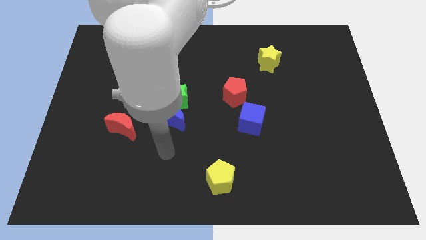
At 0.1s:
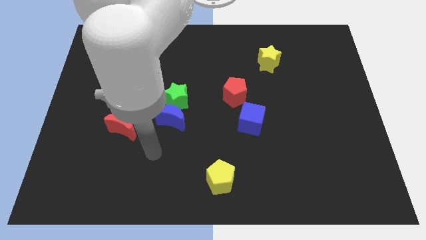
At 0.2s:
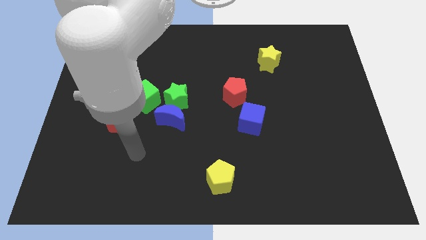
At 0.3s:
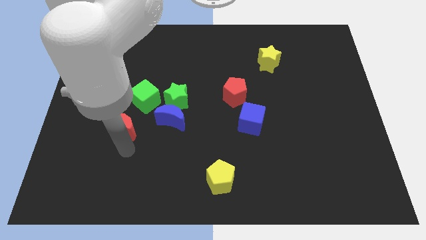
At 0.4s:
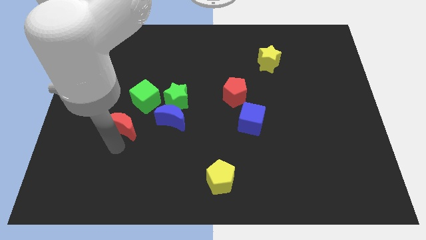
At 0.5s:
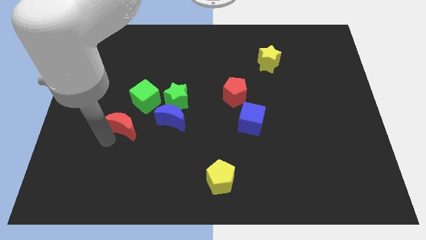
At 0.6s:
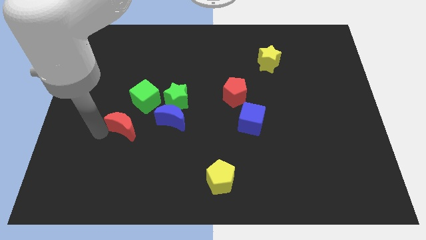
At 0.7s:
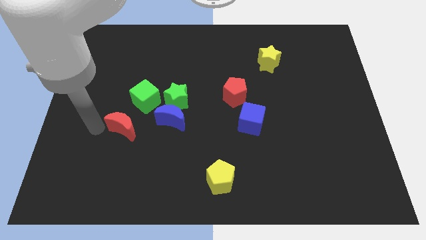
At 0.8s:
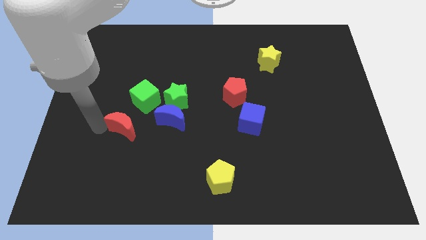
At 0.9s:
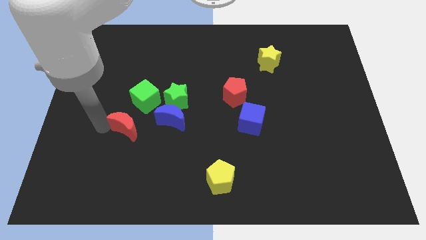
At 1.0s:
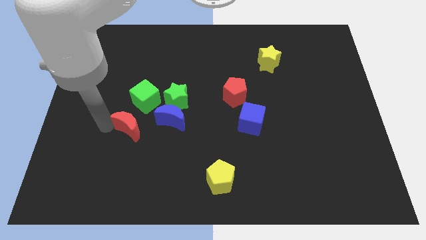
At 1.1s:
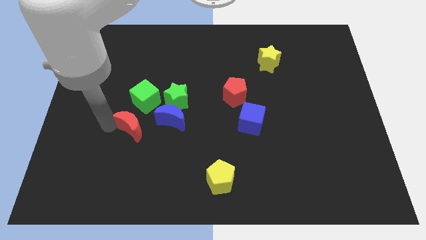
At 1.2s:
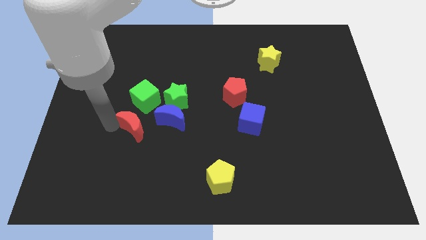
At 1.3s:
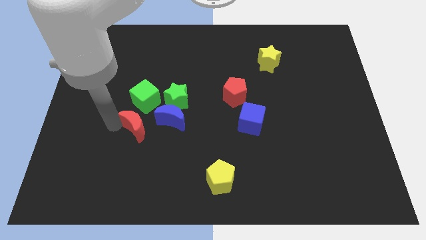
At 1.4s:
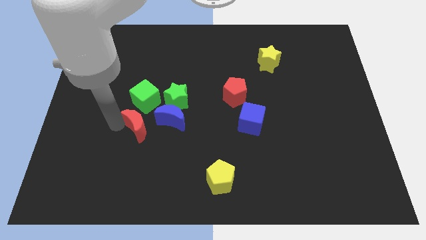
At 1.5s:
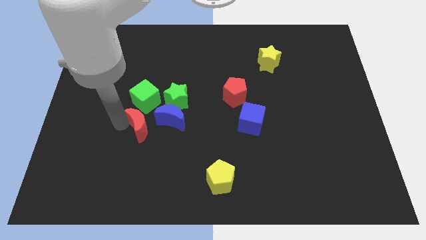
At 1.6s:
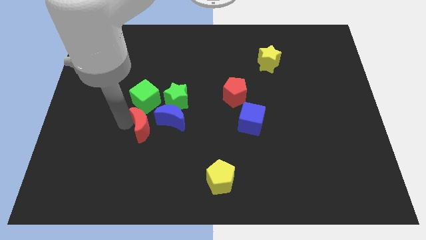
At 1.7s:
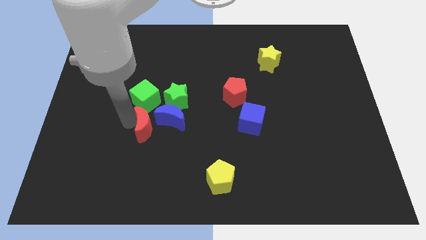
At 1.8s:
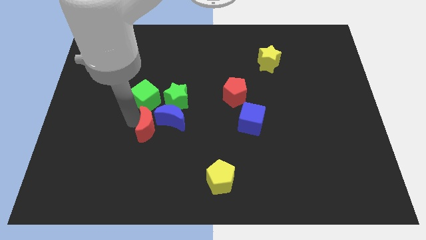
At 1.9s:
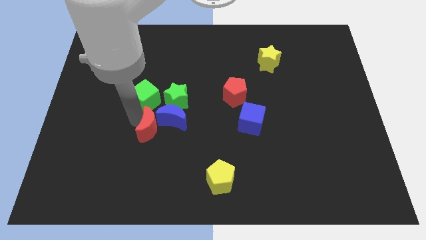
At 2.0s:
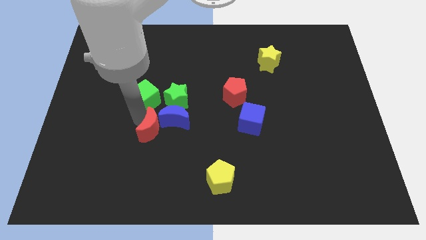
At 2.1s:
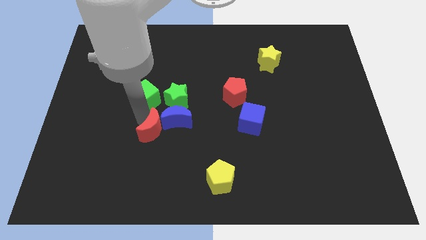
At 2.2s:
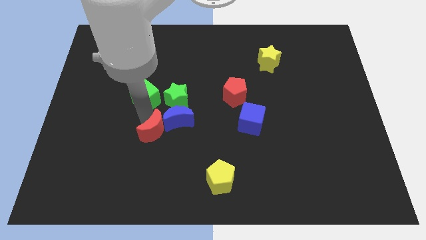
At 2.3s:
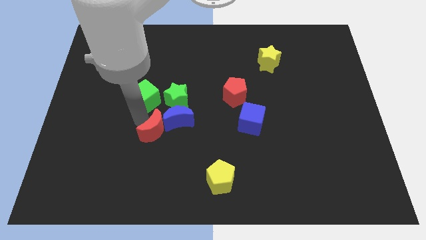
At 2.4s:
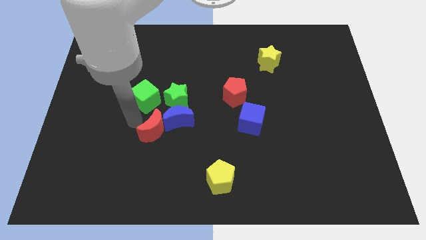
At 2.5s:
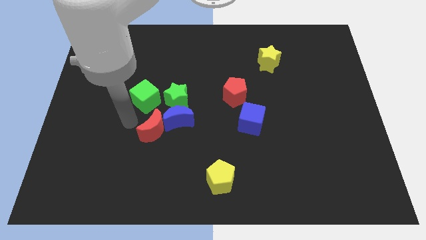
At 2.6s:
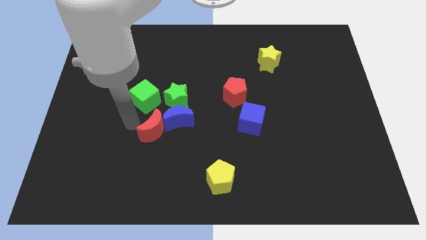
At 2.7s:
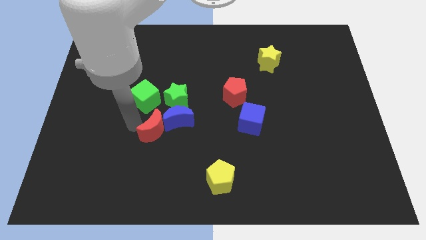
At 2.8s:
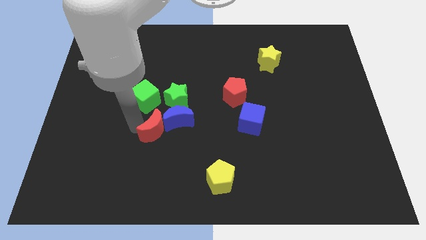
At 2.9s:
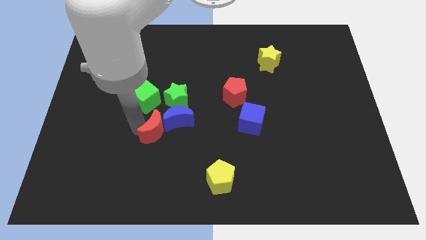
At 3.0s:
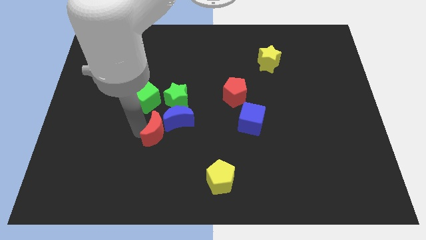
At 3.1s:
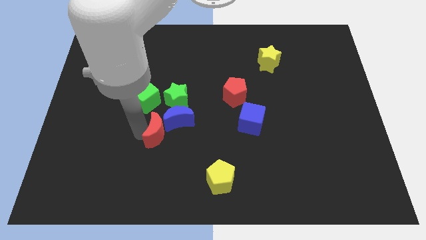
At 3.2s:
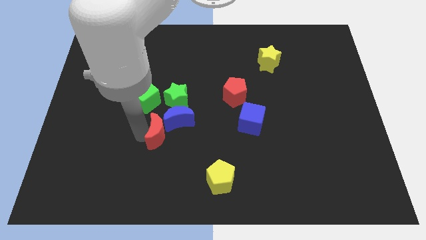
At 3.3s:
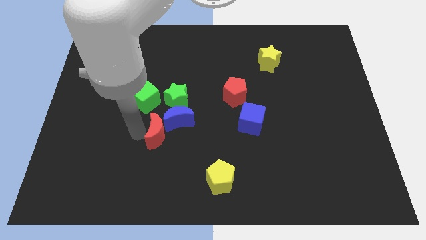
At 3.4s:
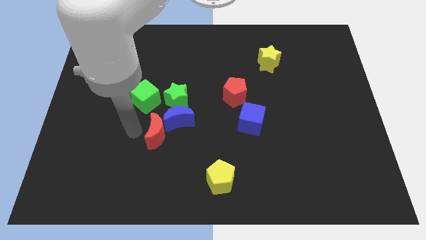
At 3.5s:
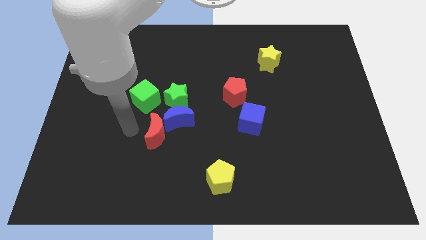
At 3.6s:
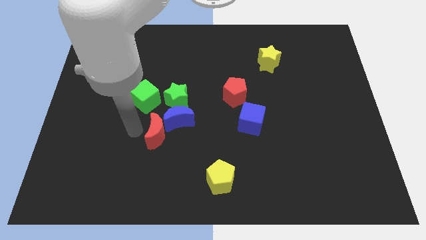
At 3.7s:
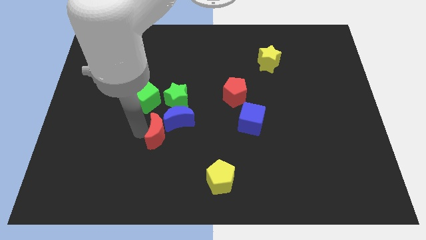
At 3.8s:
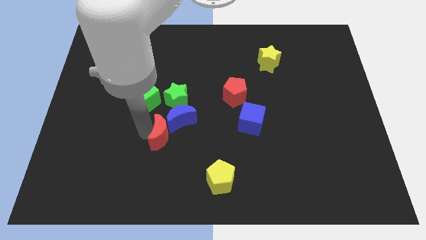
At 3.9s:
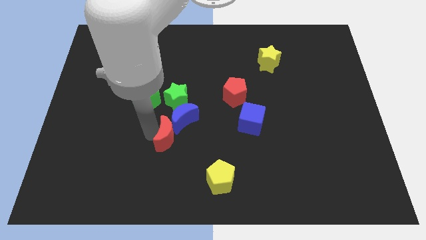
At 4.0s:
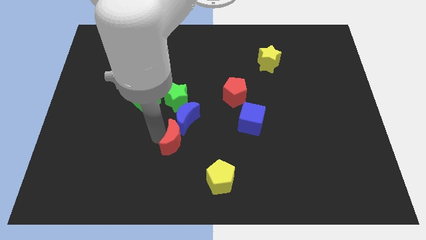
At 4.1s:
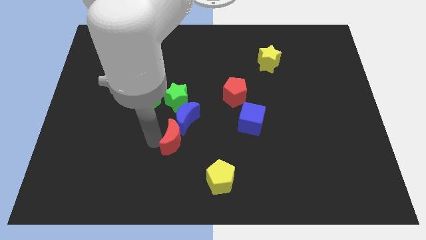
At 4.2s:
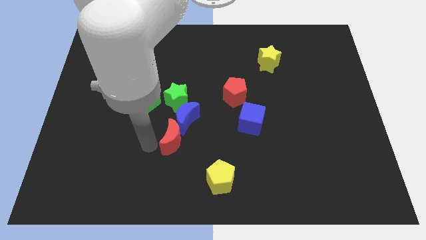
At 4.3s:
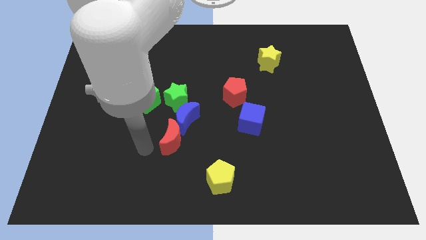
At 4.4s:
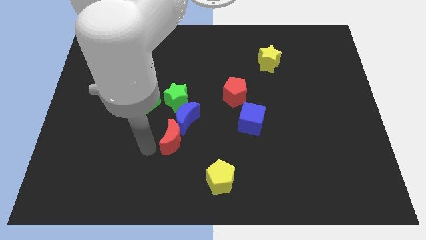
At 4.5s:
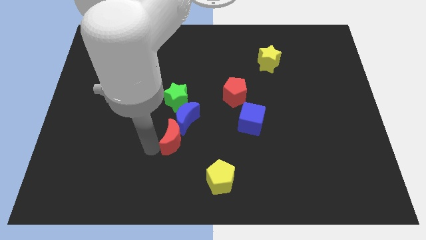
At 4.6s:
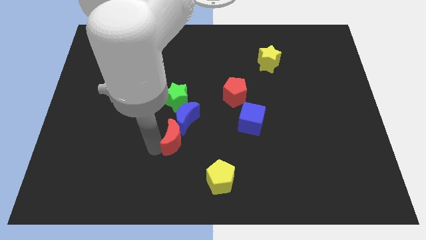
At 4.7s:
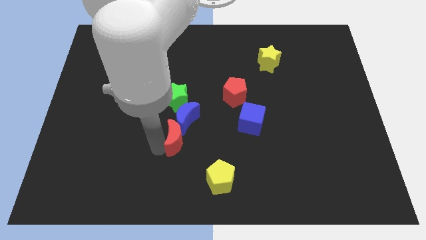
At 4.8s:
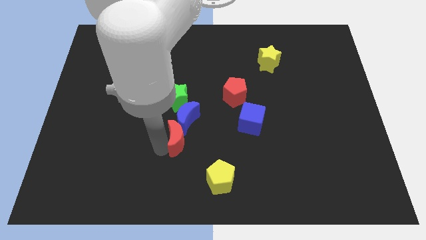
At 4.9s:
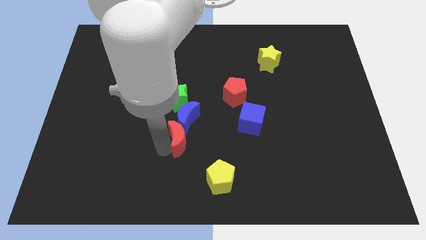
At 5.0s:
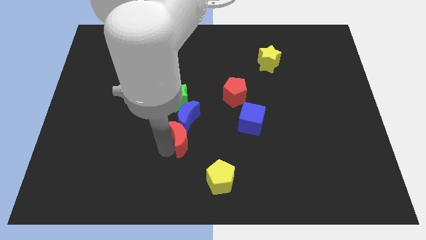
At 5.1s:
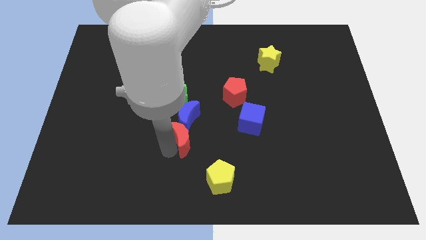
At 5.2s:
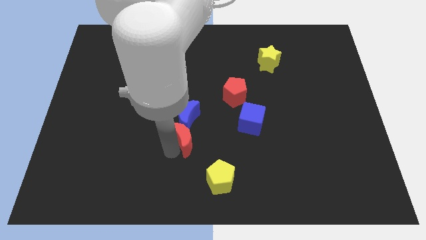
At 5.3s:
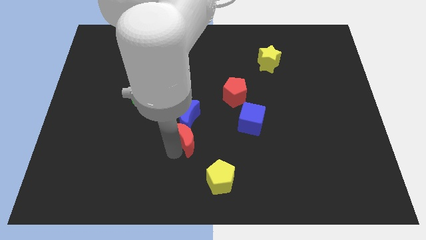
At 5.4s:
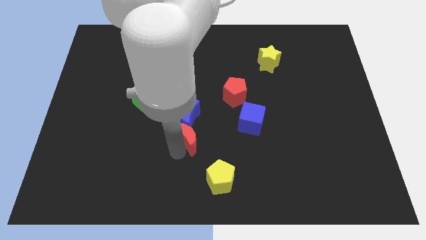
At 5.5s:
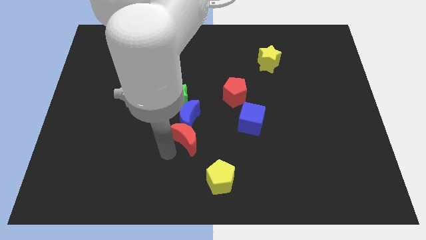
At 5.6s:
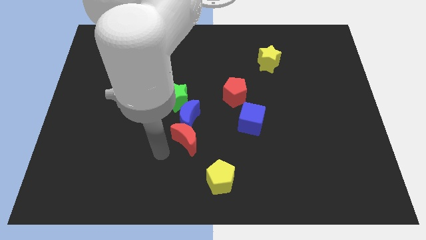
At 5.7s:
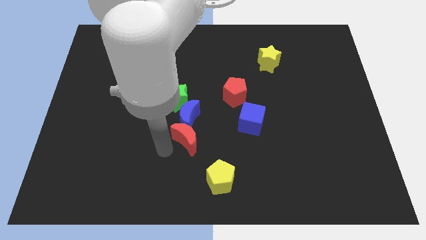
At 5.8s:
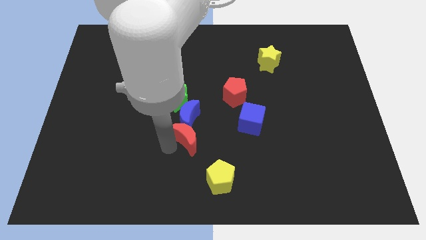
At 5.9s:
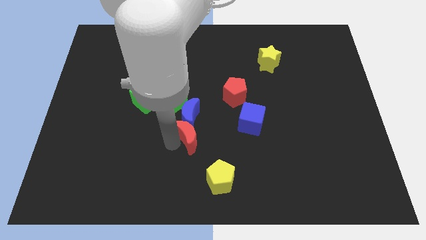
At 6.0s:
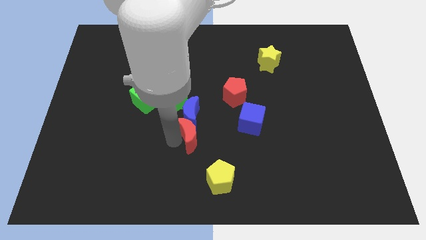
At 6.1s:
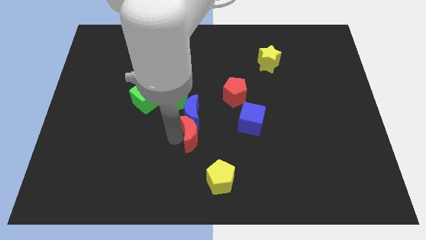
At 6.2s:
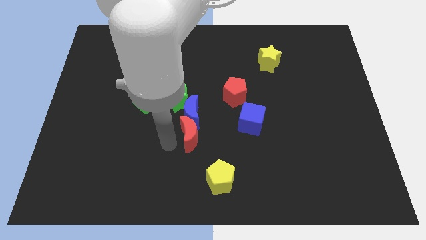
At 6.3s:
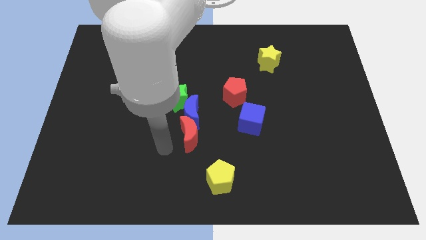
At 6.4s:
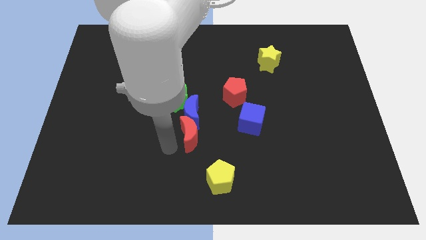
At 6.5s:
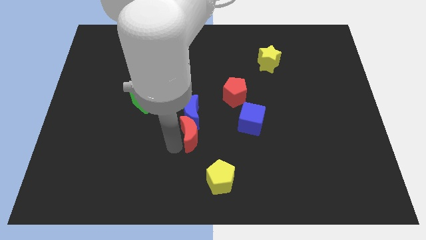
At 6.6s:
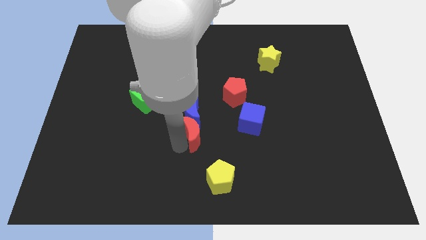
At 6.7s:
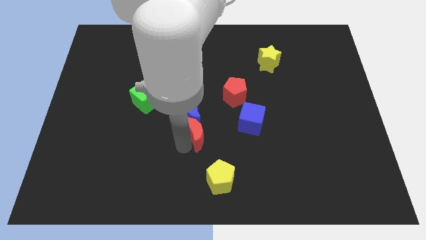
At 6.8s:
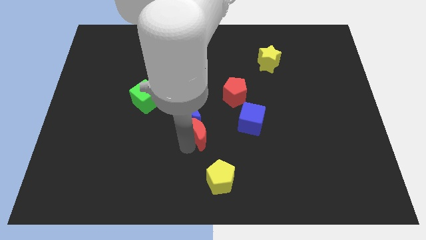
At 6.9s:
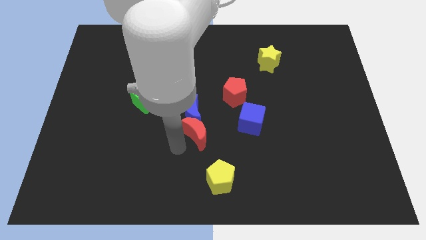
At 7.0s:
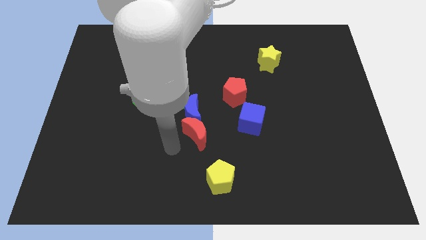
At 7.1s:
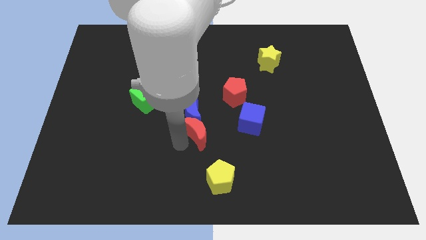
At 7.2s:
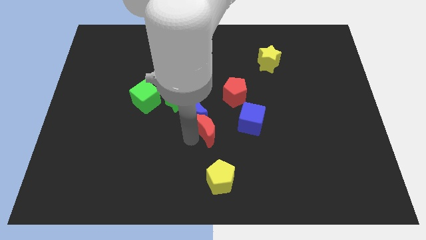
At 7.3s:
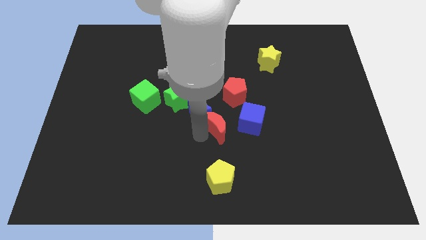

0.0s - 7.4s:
slide the red moon just right of the blue moon
